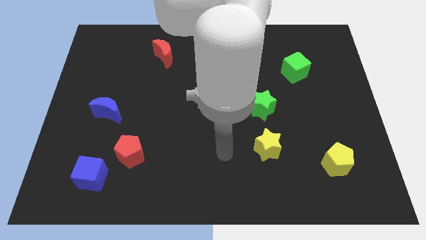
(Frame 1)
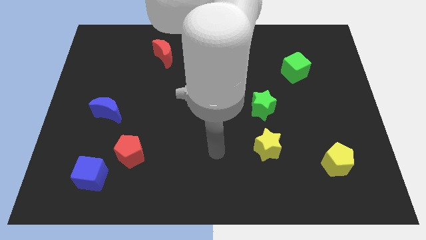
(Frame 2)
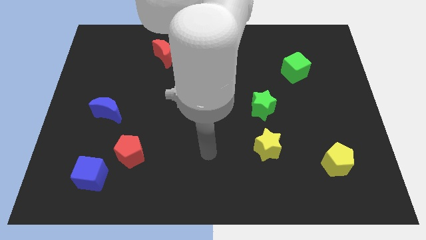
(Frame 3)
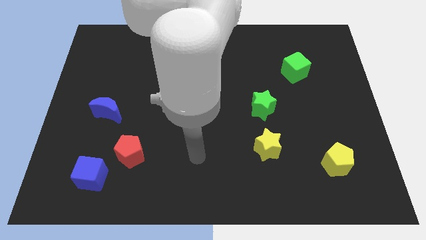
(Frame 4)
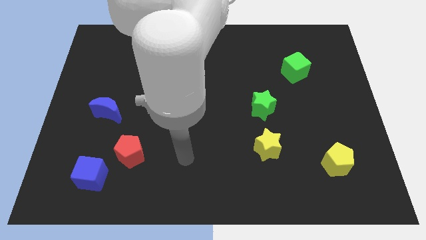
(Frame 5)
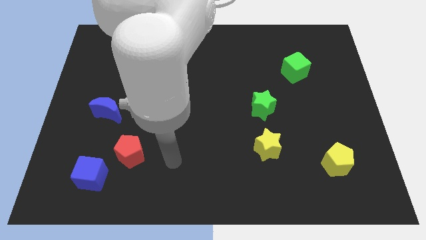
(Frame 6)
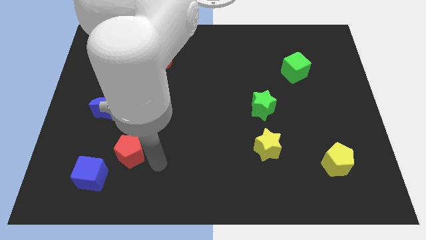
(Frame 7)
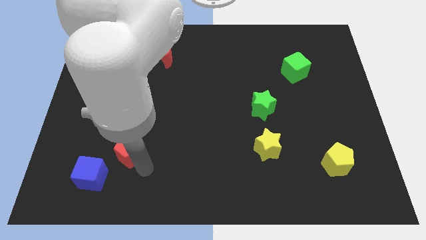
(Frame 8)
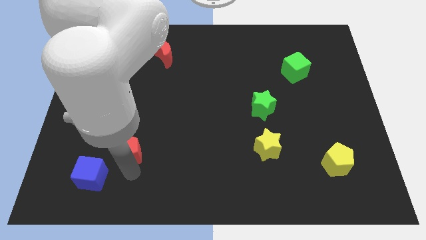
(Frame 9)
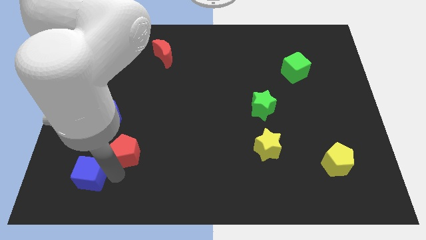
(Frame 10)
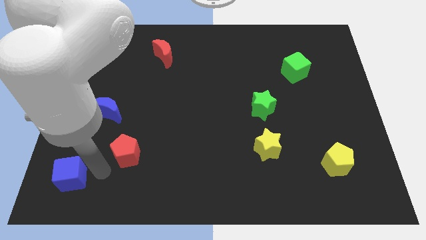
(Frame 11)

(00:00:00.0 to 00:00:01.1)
move the red pentagon away from the blue cube

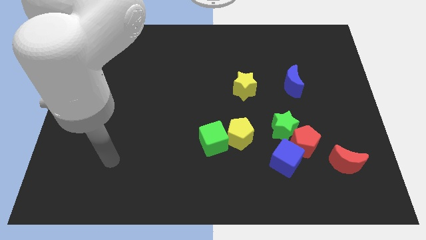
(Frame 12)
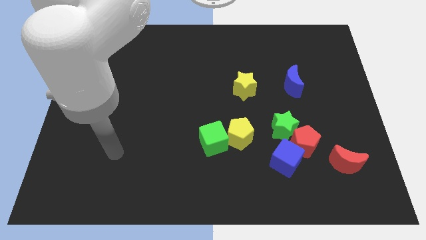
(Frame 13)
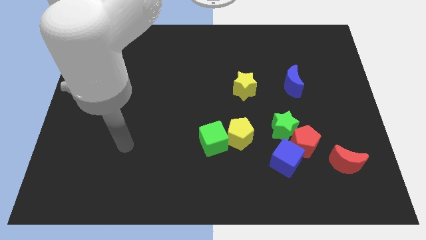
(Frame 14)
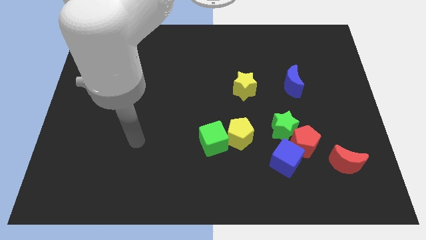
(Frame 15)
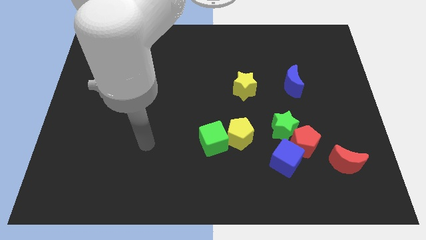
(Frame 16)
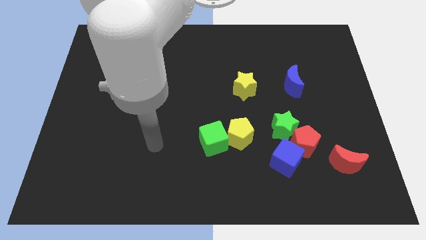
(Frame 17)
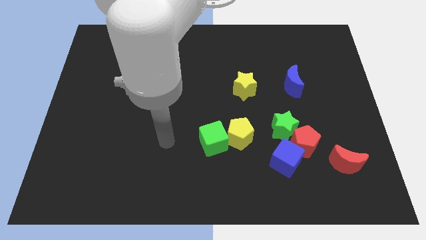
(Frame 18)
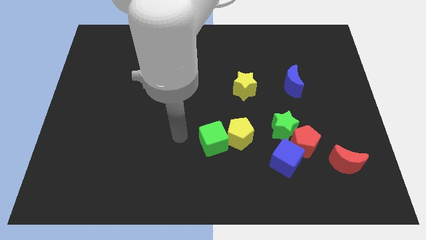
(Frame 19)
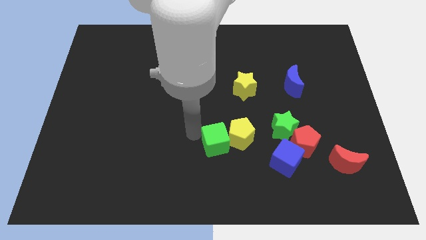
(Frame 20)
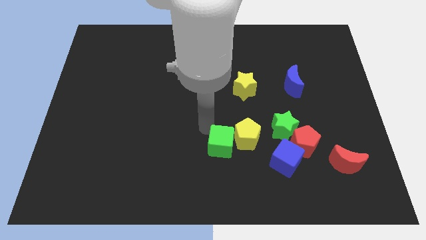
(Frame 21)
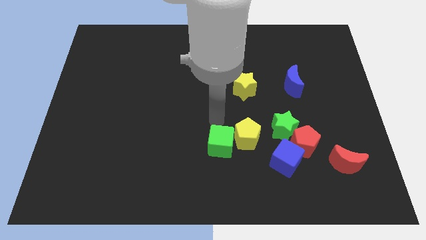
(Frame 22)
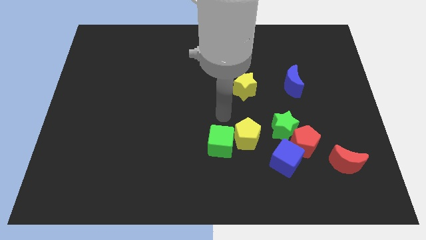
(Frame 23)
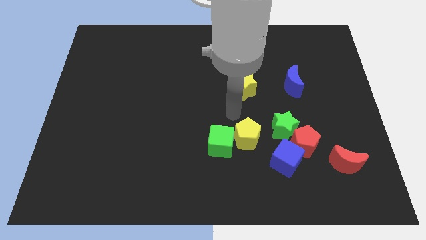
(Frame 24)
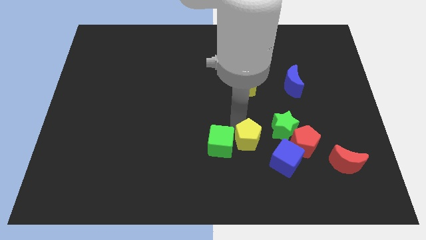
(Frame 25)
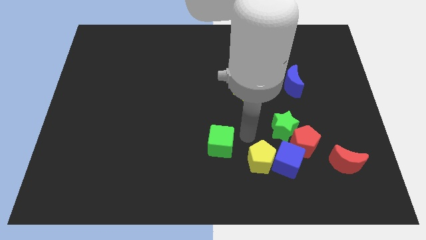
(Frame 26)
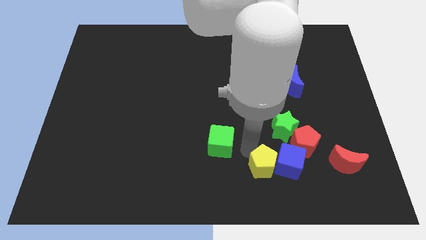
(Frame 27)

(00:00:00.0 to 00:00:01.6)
move the green cube away from the yellow pentagon

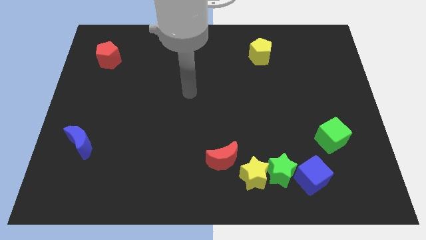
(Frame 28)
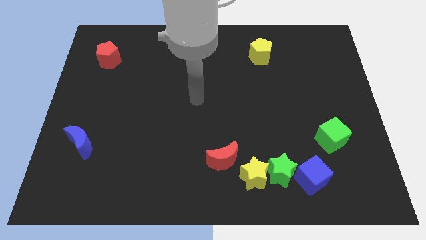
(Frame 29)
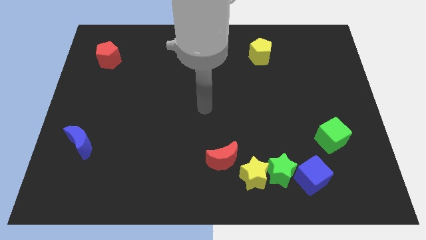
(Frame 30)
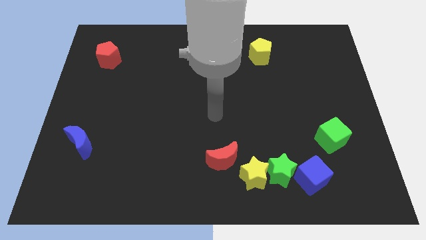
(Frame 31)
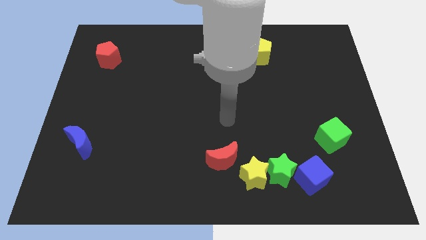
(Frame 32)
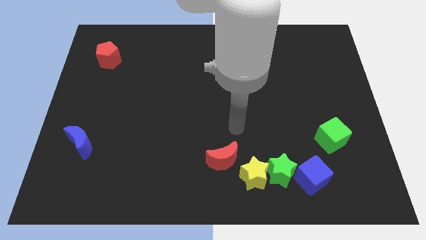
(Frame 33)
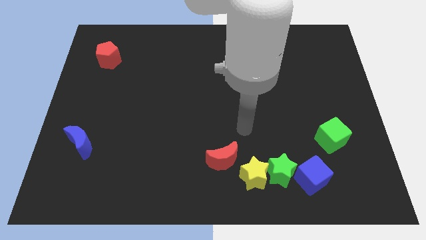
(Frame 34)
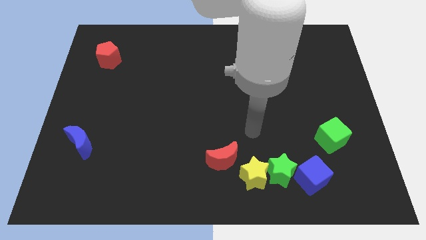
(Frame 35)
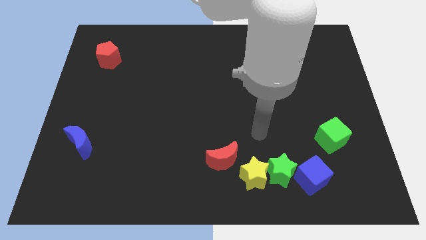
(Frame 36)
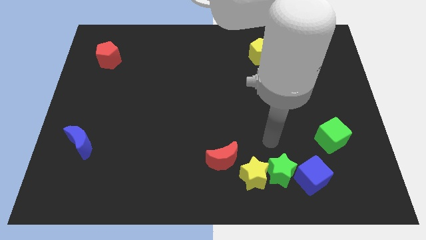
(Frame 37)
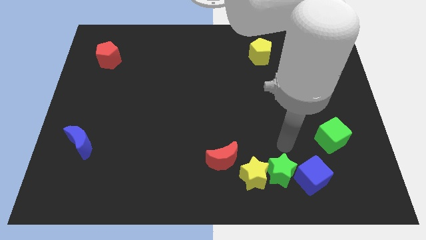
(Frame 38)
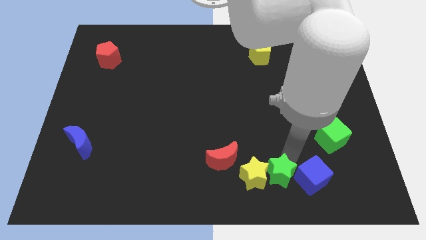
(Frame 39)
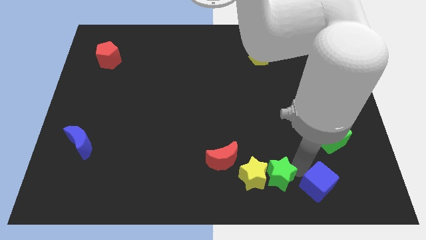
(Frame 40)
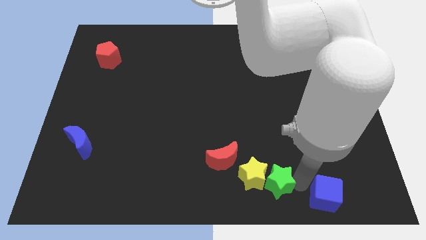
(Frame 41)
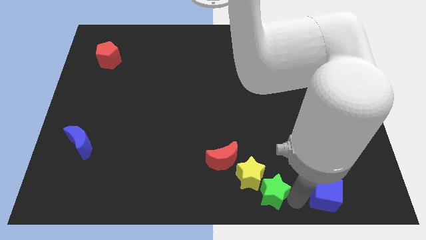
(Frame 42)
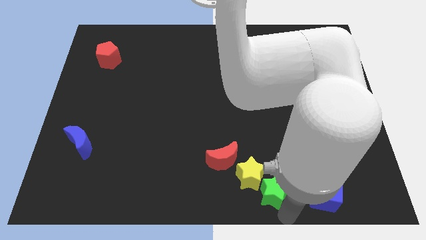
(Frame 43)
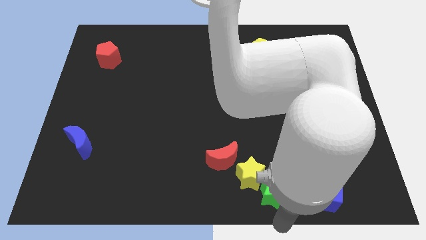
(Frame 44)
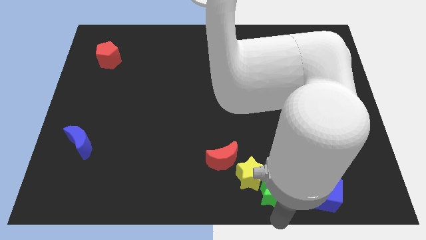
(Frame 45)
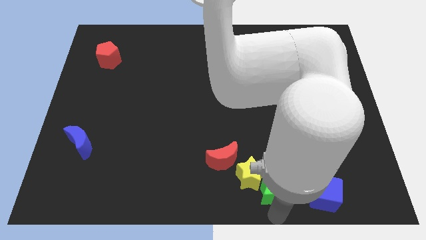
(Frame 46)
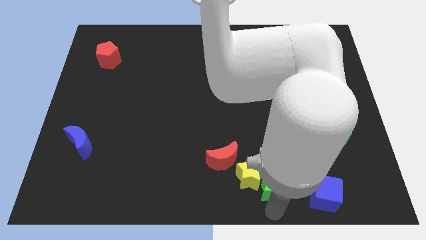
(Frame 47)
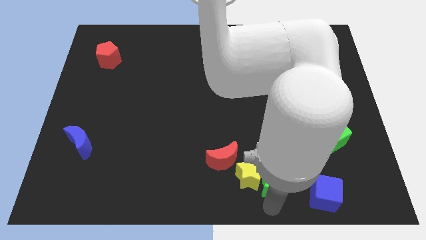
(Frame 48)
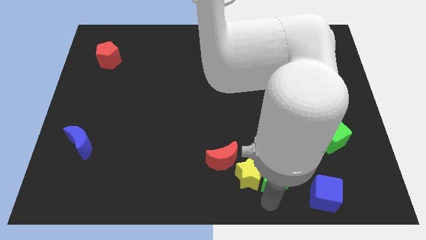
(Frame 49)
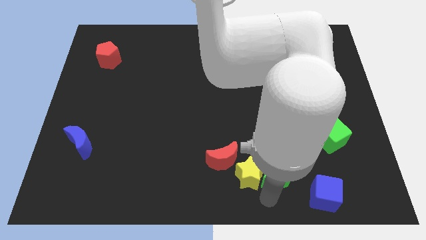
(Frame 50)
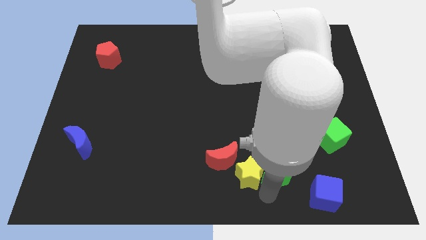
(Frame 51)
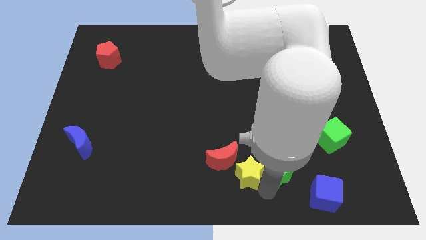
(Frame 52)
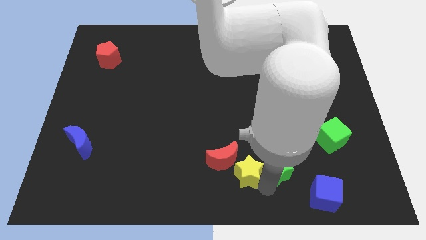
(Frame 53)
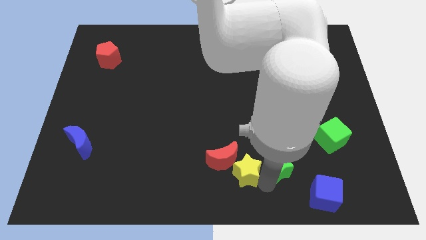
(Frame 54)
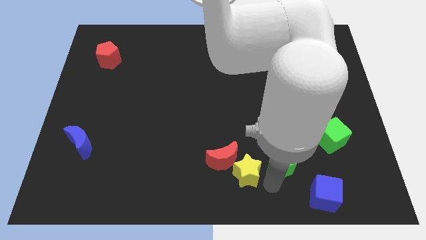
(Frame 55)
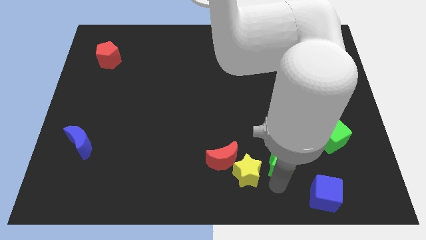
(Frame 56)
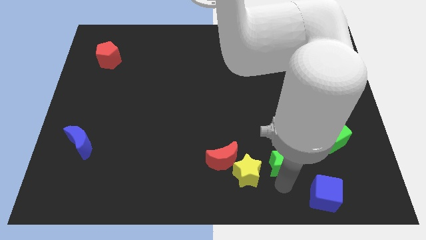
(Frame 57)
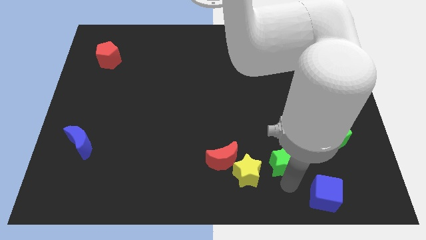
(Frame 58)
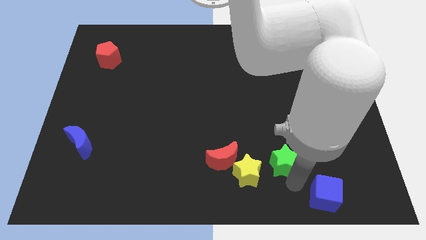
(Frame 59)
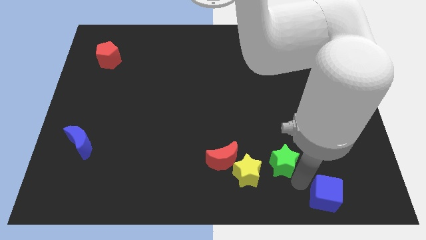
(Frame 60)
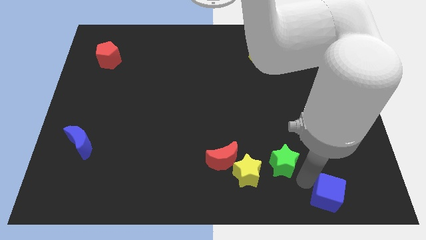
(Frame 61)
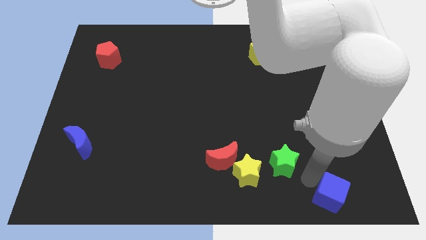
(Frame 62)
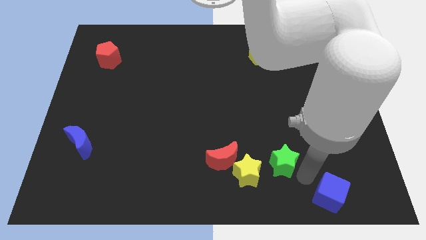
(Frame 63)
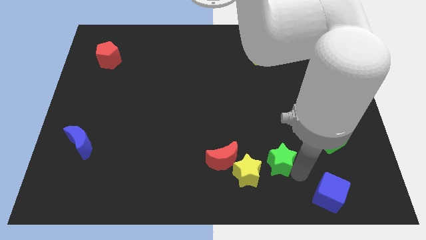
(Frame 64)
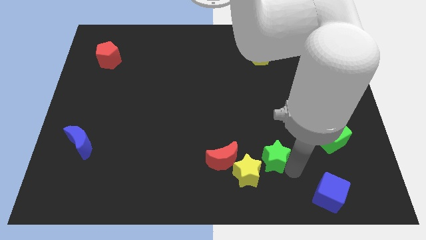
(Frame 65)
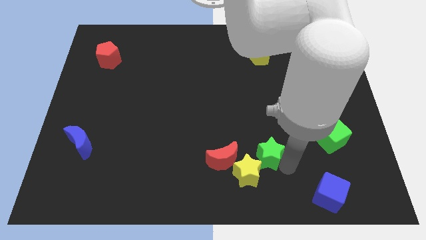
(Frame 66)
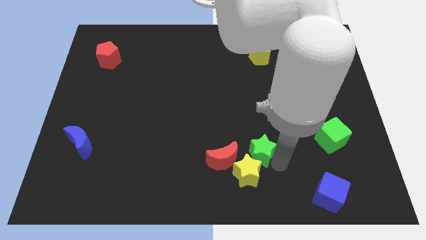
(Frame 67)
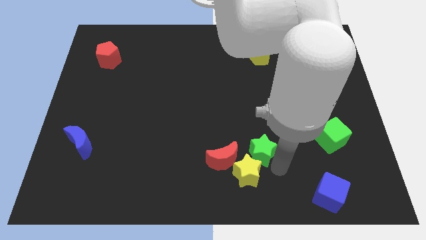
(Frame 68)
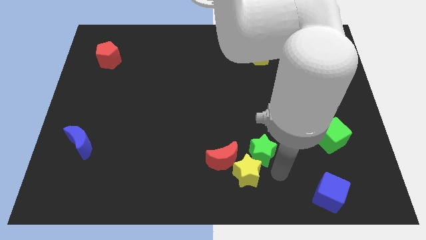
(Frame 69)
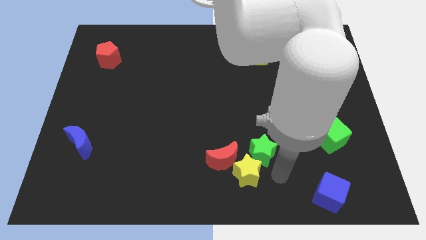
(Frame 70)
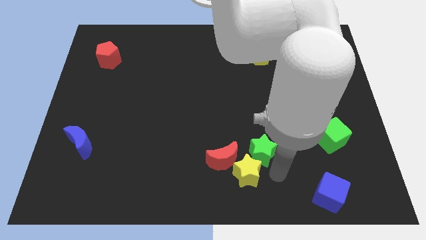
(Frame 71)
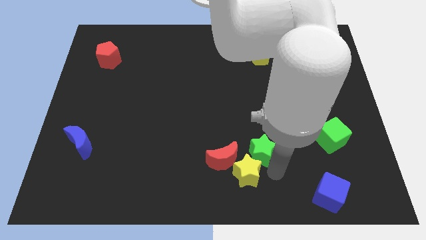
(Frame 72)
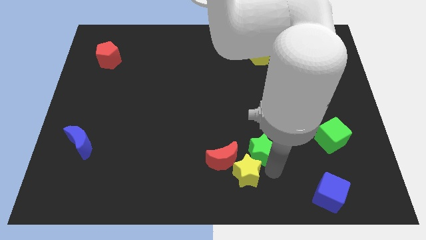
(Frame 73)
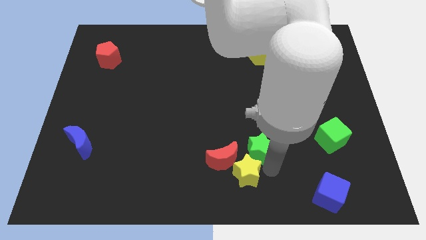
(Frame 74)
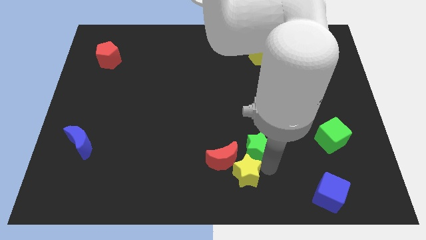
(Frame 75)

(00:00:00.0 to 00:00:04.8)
move the green star away from the yellow star and blue cube

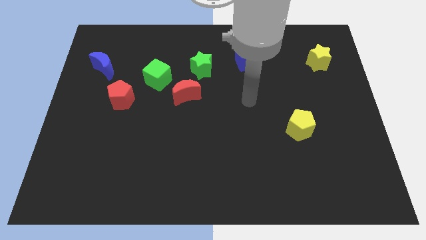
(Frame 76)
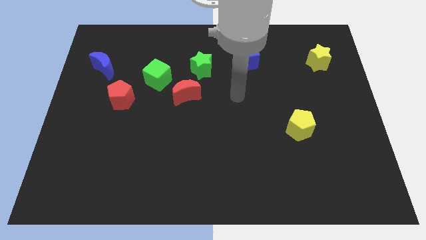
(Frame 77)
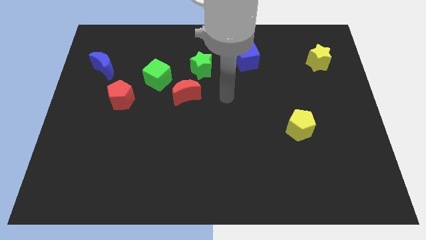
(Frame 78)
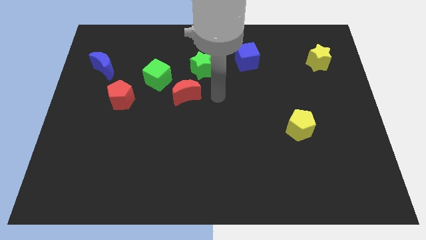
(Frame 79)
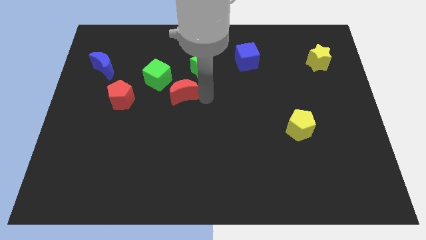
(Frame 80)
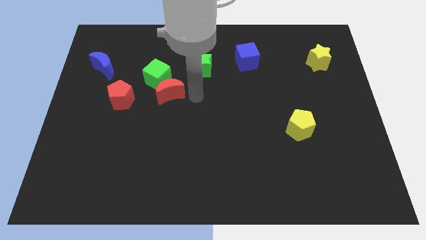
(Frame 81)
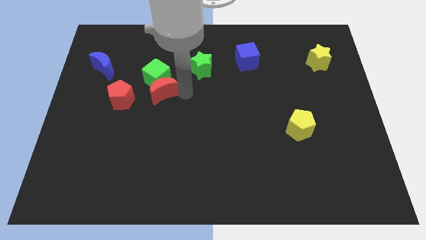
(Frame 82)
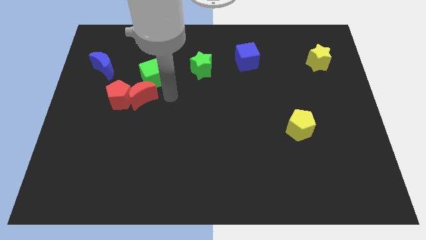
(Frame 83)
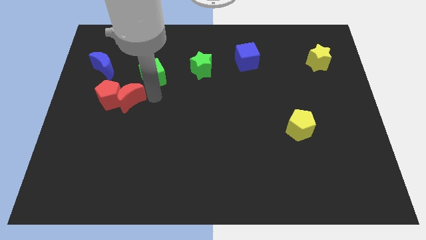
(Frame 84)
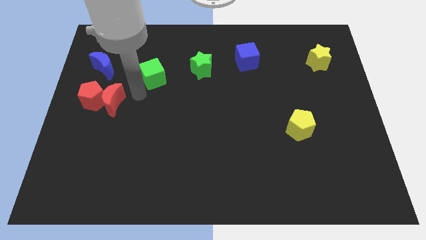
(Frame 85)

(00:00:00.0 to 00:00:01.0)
pull the green cube apart from the red moon

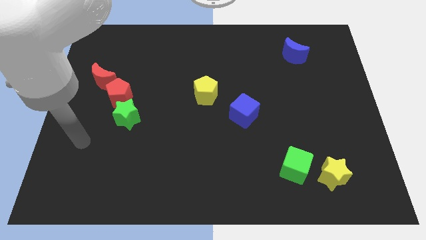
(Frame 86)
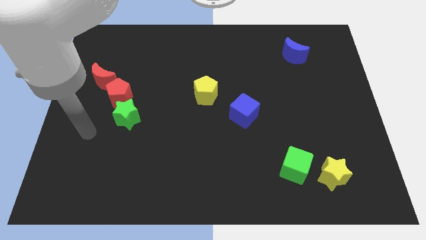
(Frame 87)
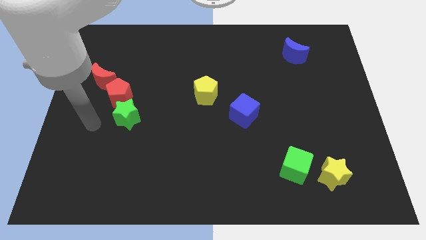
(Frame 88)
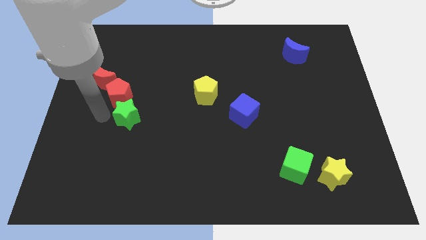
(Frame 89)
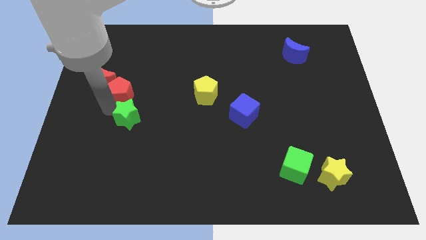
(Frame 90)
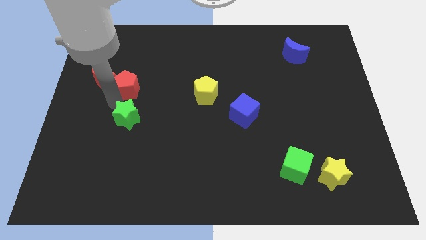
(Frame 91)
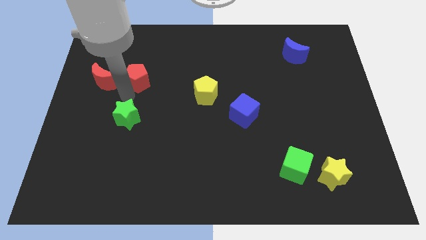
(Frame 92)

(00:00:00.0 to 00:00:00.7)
separate the green star from the red pentagon
